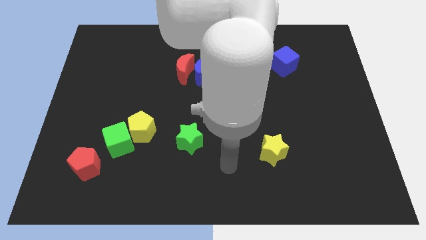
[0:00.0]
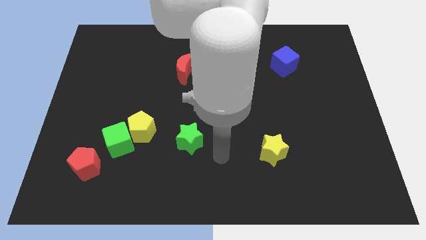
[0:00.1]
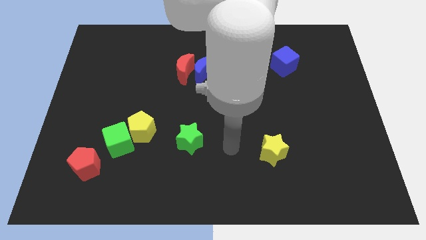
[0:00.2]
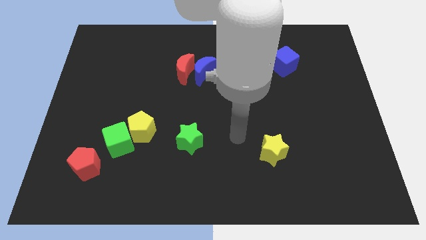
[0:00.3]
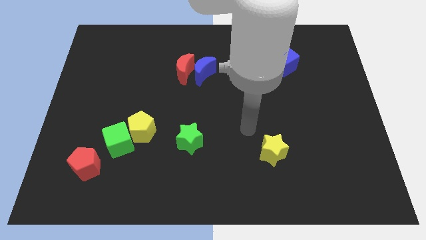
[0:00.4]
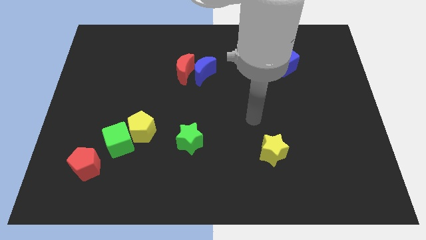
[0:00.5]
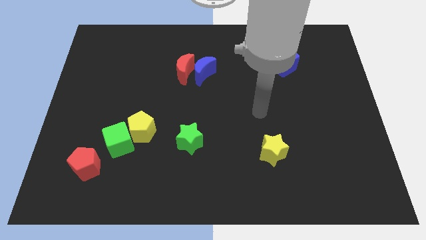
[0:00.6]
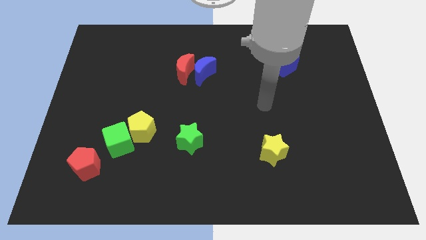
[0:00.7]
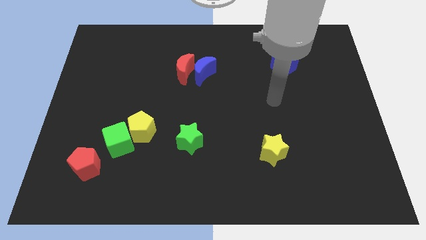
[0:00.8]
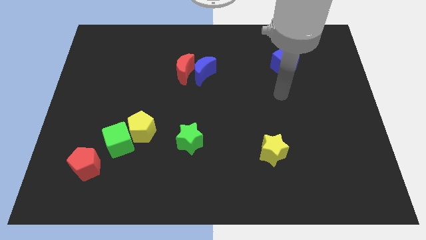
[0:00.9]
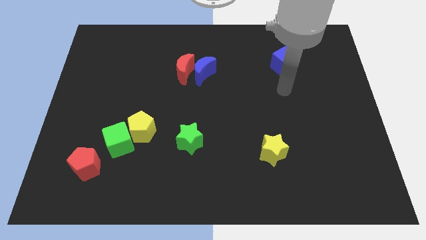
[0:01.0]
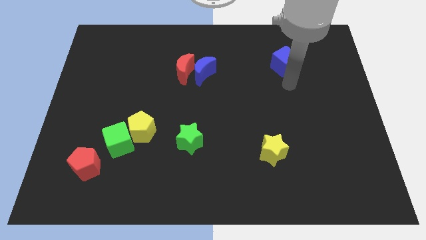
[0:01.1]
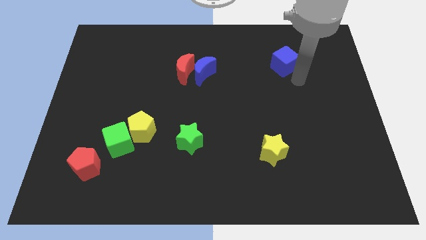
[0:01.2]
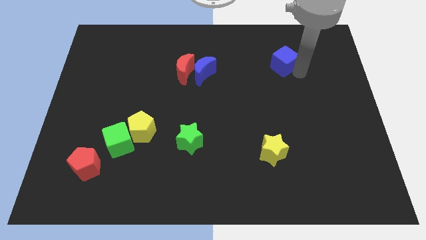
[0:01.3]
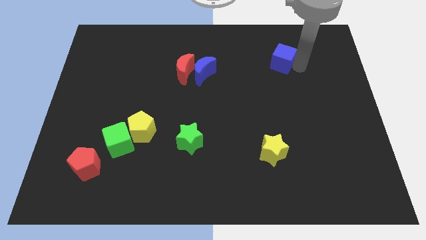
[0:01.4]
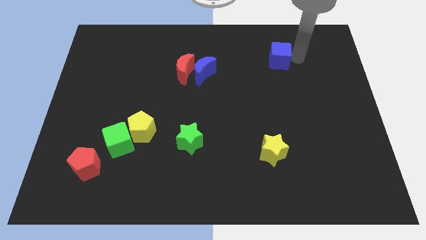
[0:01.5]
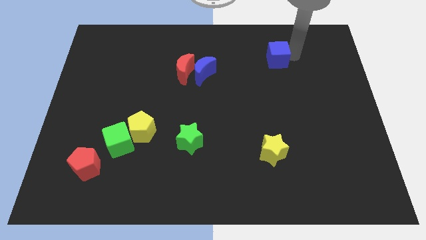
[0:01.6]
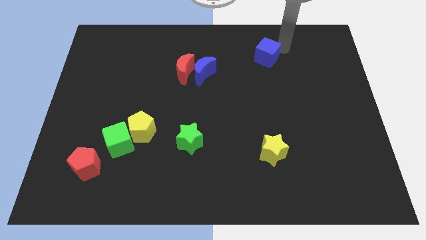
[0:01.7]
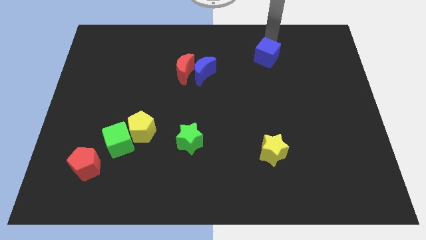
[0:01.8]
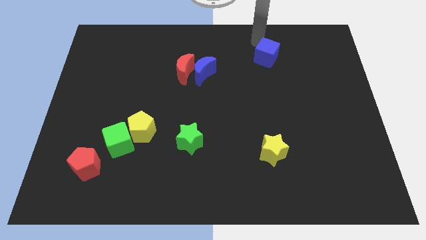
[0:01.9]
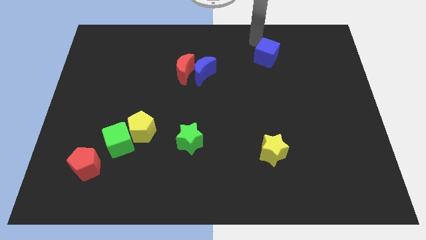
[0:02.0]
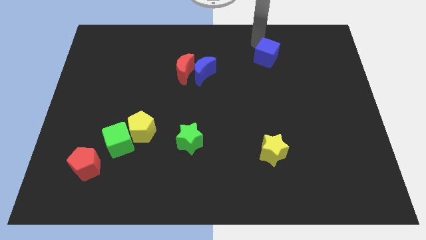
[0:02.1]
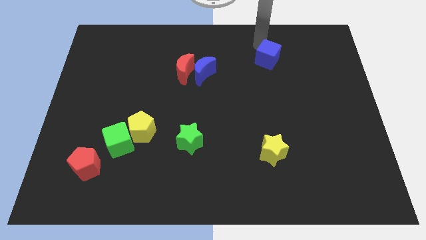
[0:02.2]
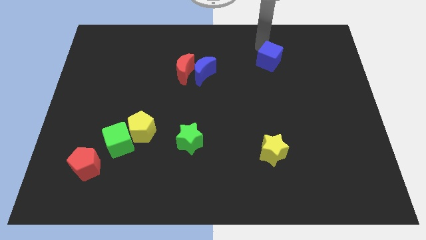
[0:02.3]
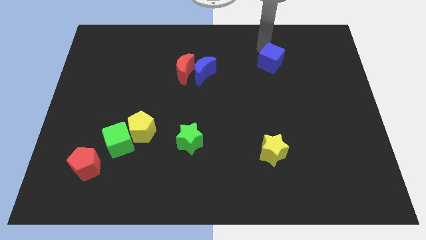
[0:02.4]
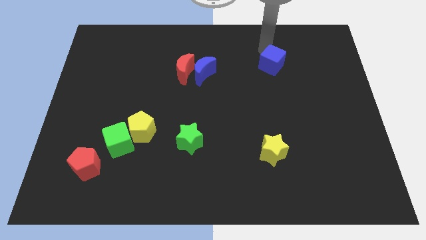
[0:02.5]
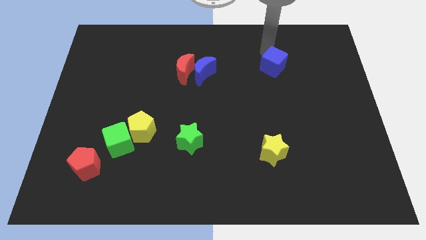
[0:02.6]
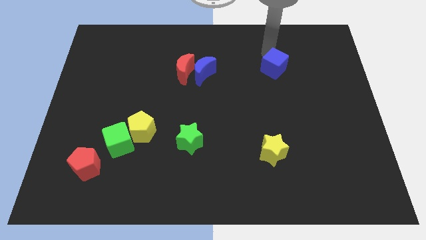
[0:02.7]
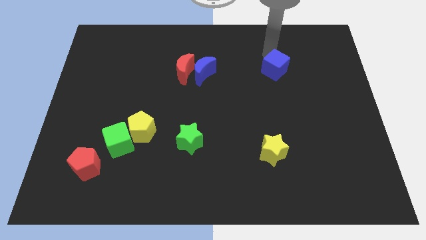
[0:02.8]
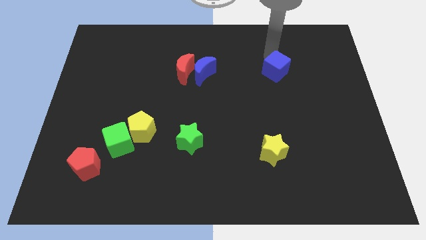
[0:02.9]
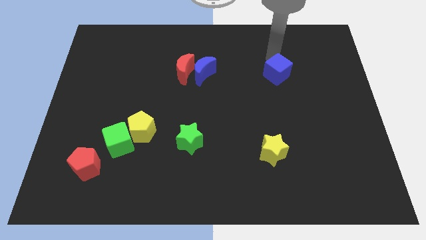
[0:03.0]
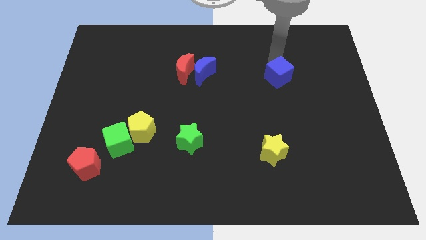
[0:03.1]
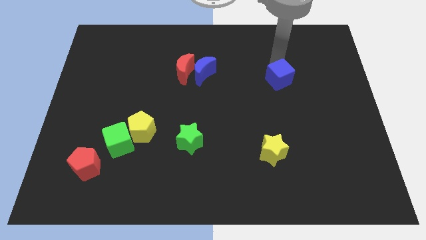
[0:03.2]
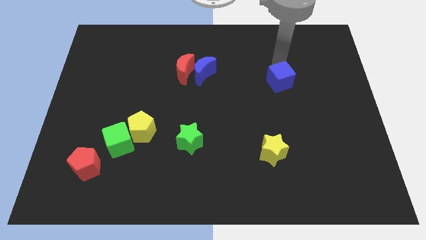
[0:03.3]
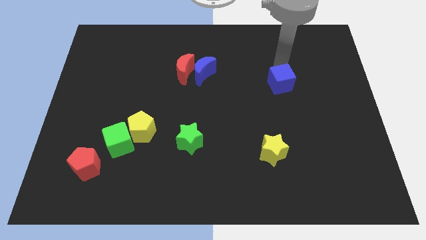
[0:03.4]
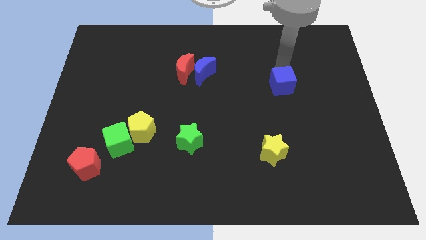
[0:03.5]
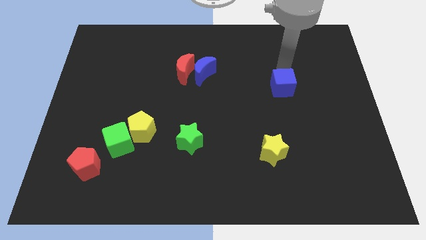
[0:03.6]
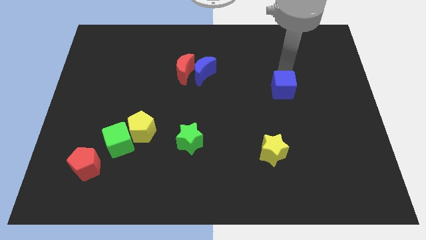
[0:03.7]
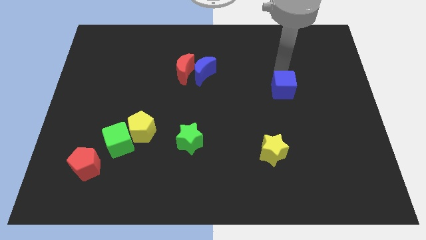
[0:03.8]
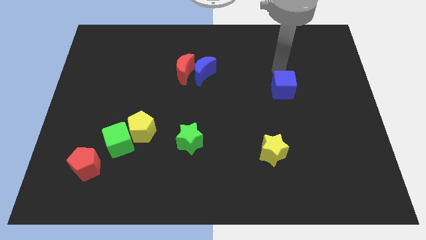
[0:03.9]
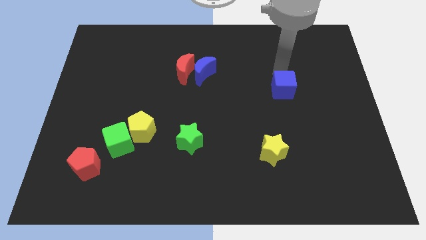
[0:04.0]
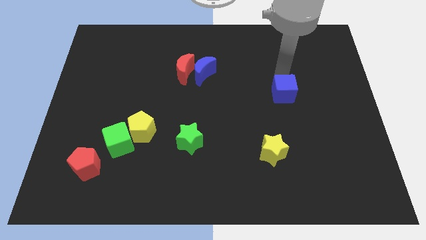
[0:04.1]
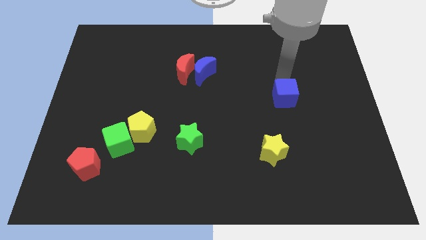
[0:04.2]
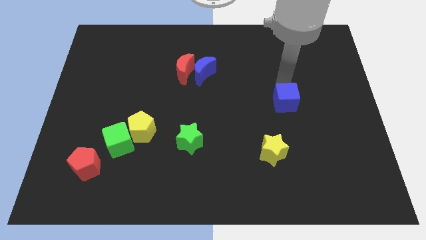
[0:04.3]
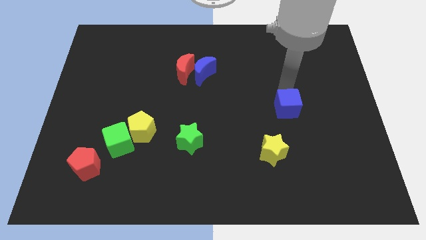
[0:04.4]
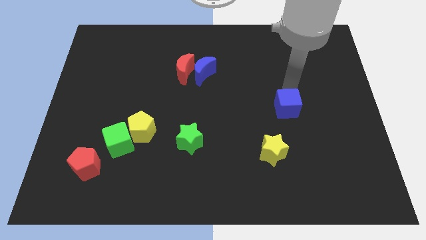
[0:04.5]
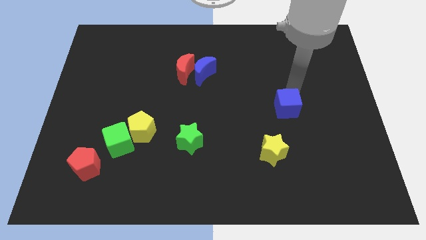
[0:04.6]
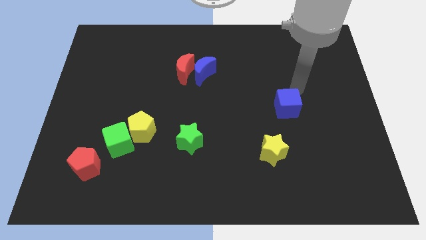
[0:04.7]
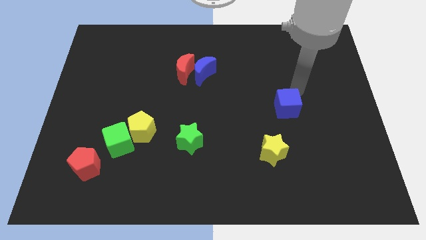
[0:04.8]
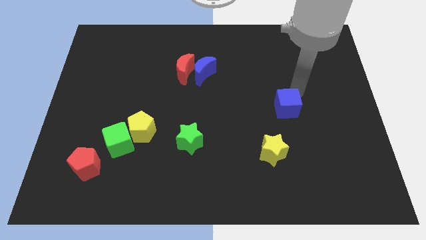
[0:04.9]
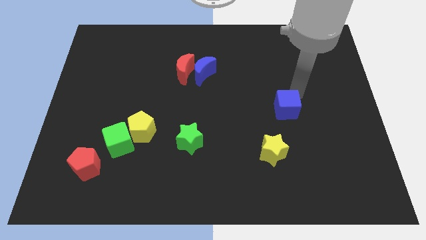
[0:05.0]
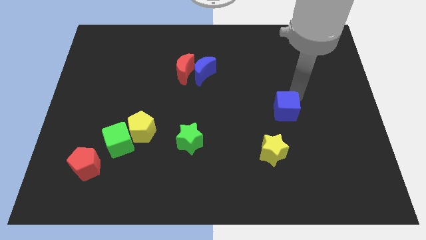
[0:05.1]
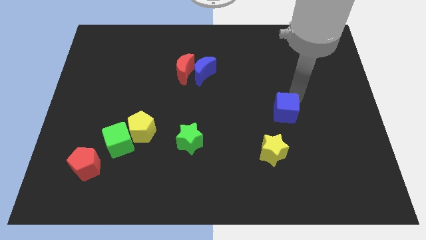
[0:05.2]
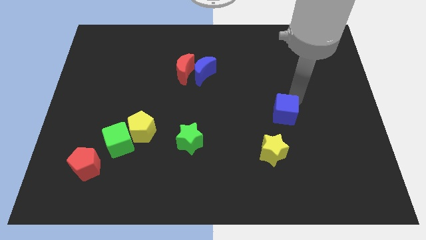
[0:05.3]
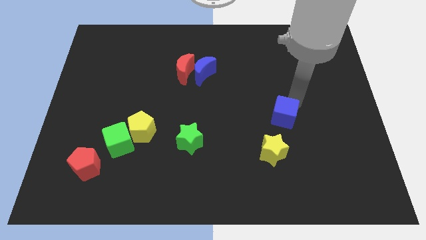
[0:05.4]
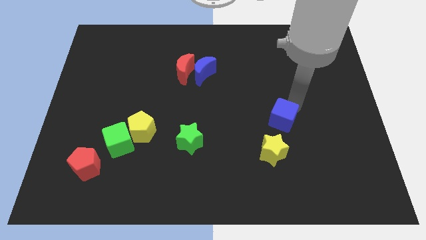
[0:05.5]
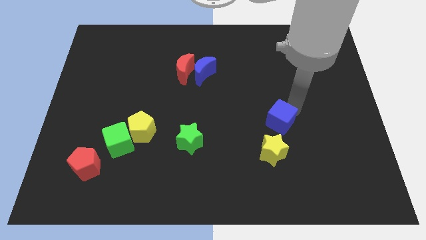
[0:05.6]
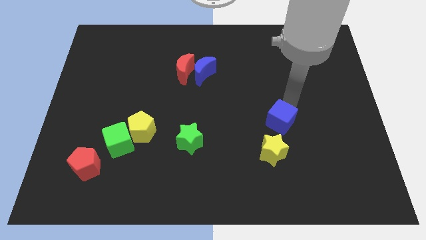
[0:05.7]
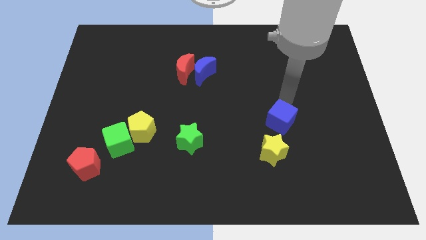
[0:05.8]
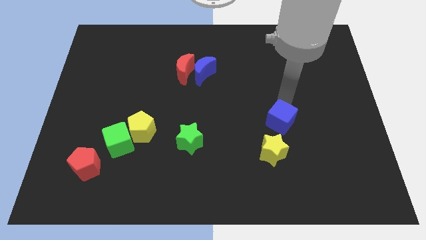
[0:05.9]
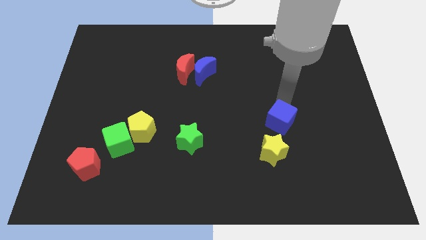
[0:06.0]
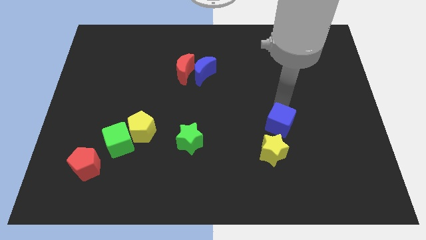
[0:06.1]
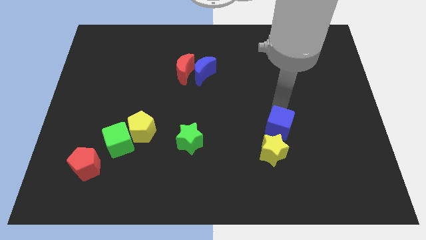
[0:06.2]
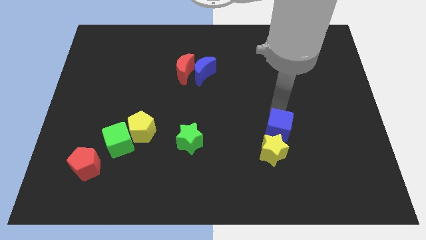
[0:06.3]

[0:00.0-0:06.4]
put the blue cube towards the yellow star

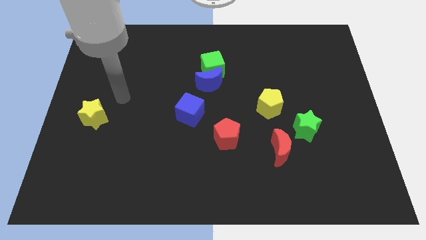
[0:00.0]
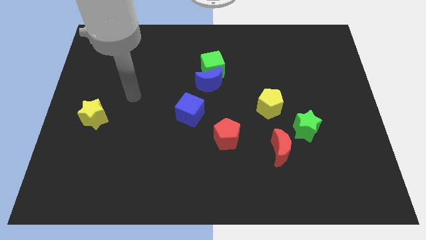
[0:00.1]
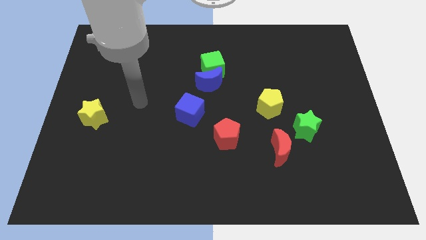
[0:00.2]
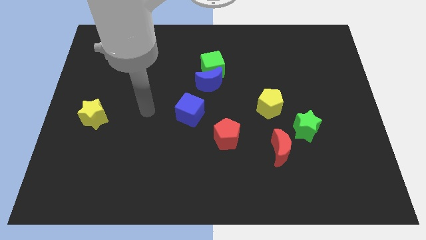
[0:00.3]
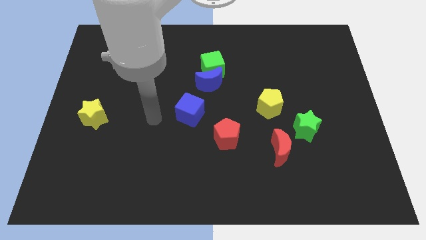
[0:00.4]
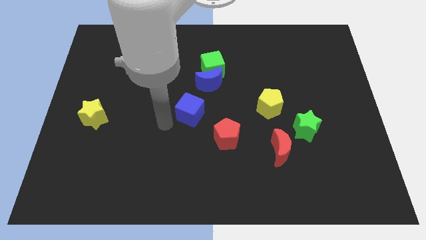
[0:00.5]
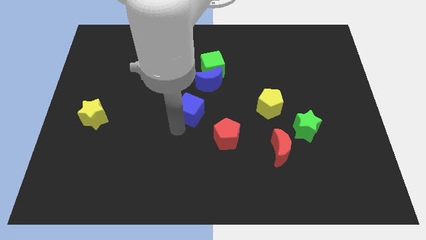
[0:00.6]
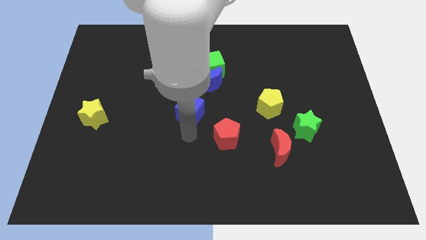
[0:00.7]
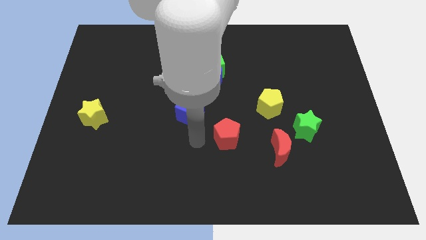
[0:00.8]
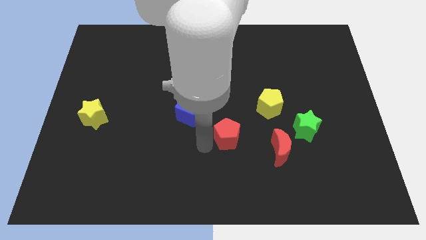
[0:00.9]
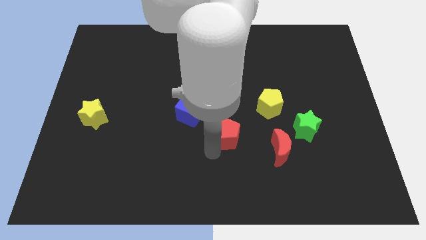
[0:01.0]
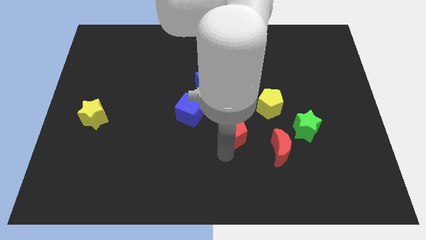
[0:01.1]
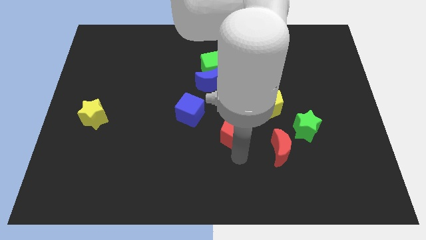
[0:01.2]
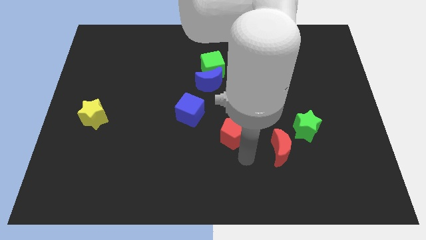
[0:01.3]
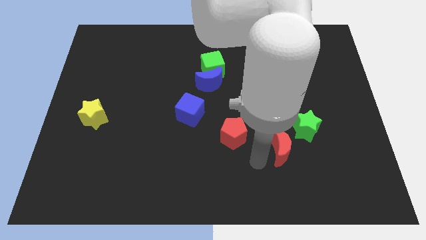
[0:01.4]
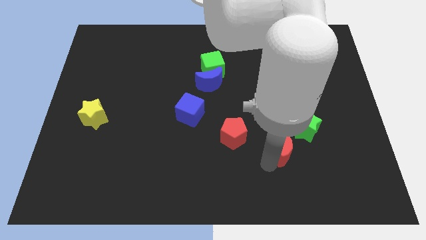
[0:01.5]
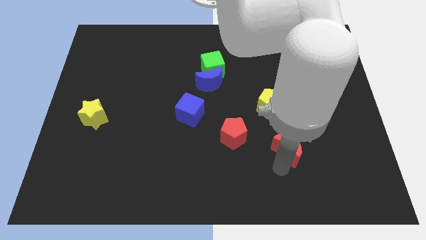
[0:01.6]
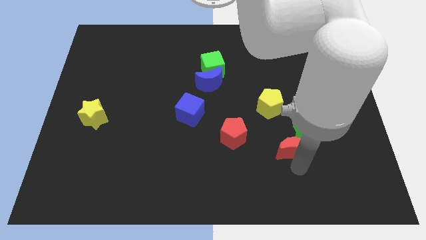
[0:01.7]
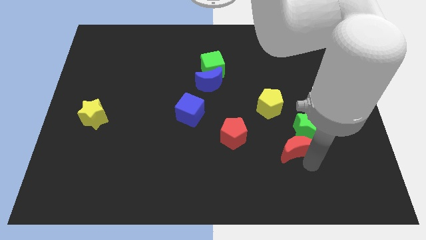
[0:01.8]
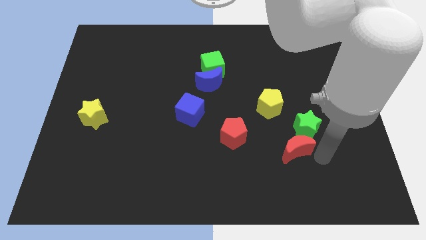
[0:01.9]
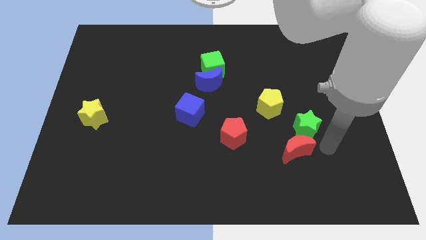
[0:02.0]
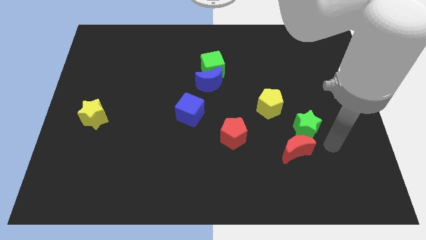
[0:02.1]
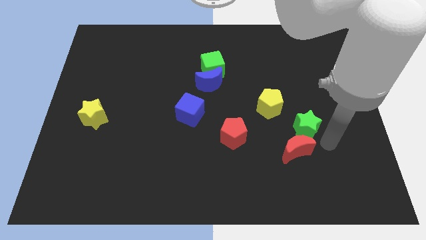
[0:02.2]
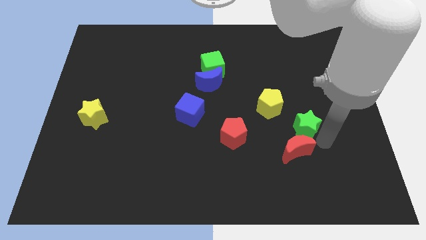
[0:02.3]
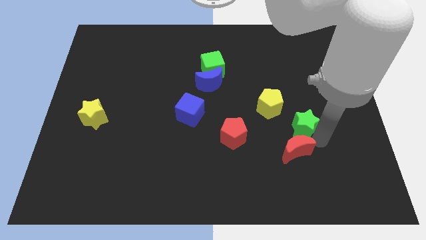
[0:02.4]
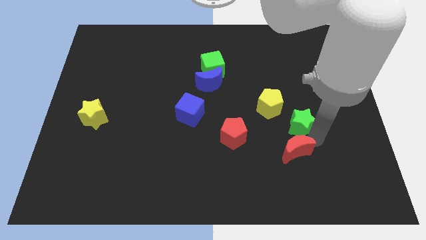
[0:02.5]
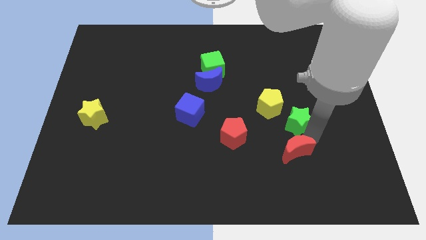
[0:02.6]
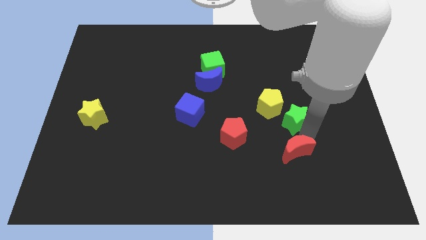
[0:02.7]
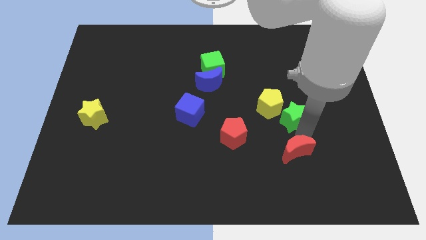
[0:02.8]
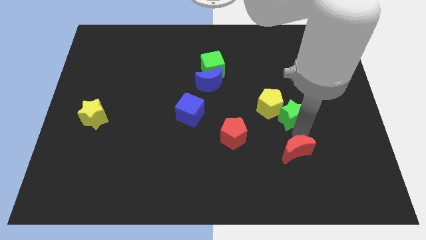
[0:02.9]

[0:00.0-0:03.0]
move the green star towards the yellow pentagon
